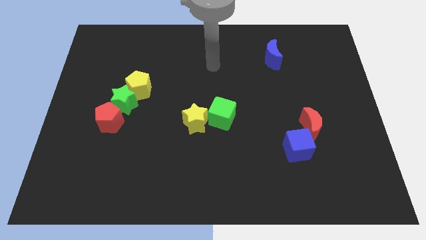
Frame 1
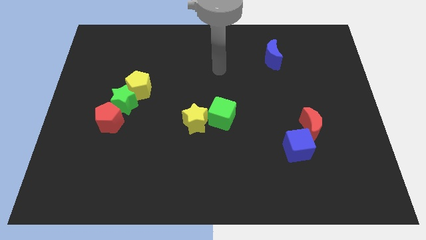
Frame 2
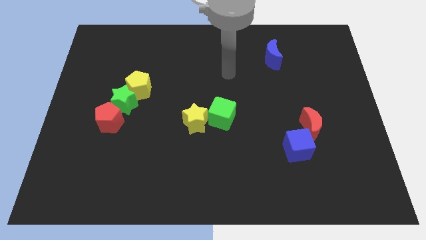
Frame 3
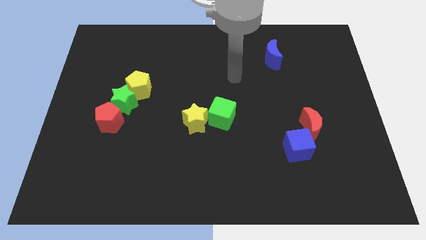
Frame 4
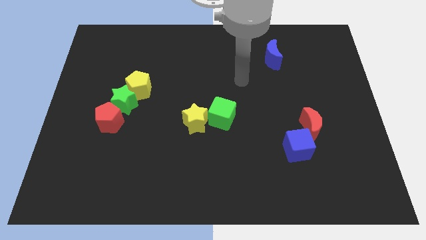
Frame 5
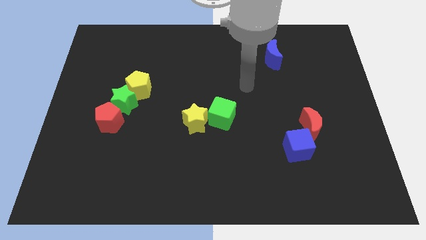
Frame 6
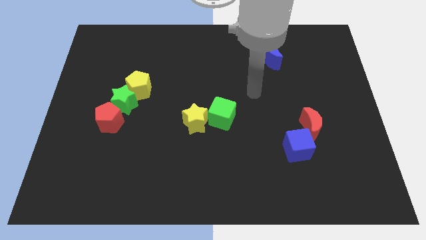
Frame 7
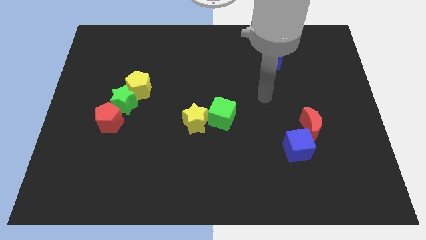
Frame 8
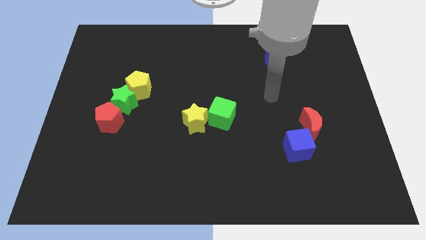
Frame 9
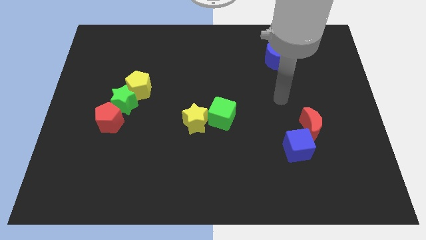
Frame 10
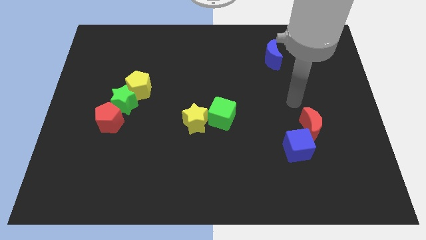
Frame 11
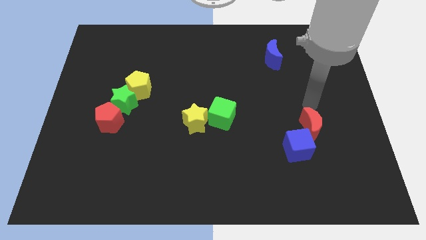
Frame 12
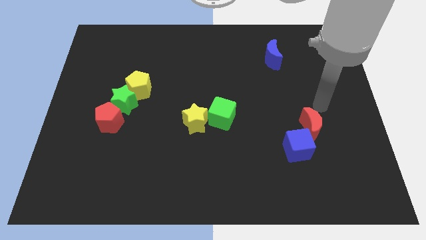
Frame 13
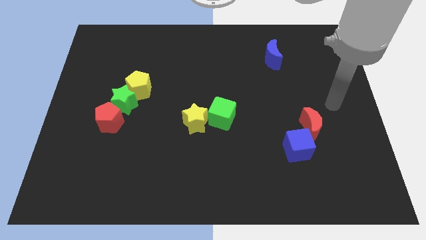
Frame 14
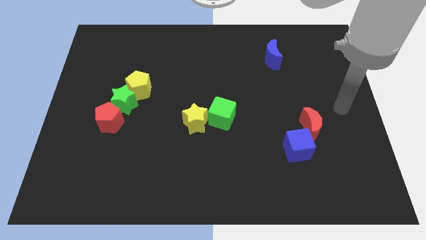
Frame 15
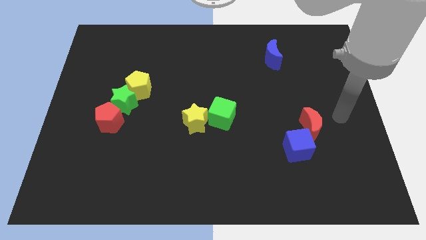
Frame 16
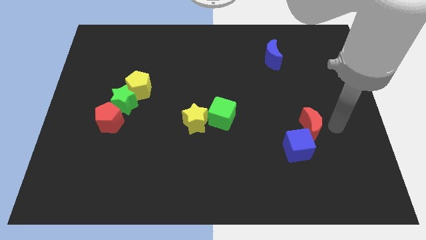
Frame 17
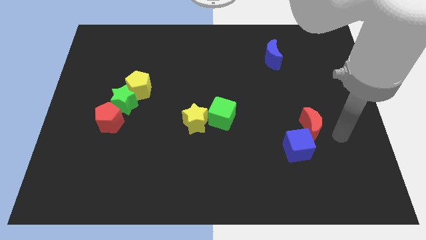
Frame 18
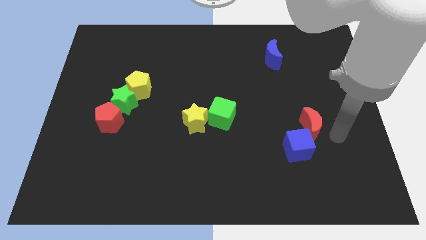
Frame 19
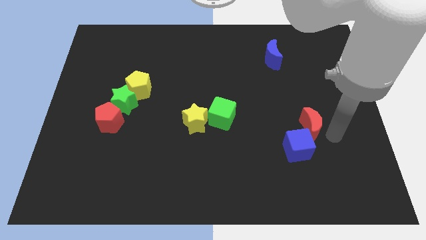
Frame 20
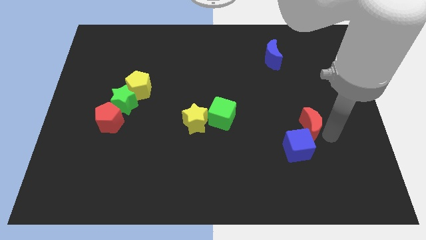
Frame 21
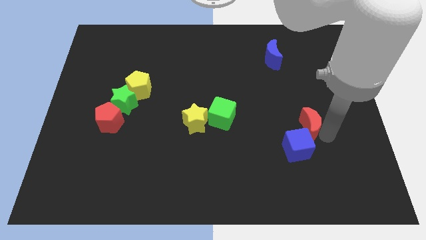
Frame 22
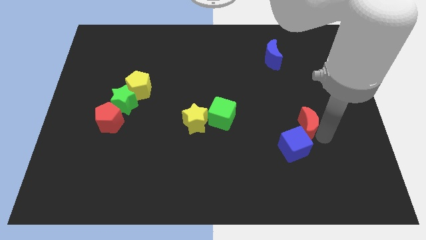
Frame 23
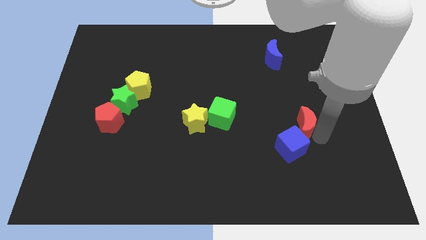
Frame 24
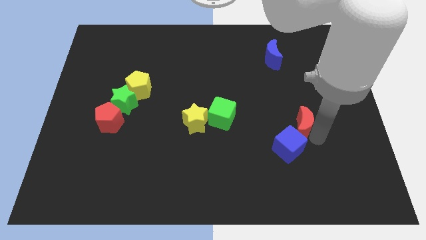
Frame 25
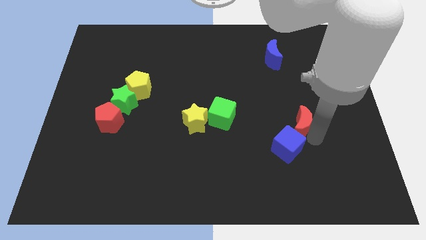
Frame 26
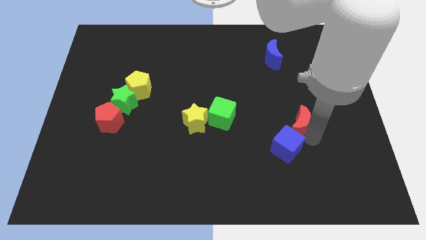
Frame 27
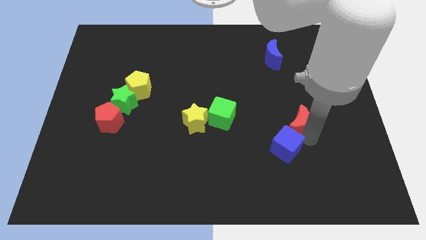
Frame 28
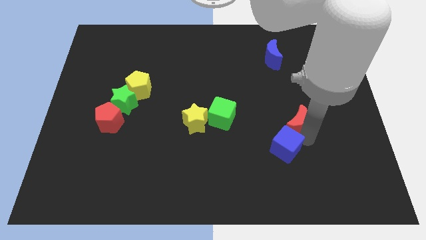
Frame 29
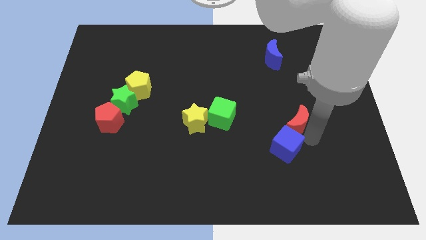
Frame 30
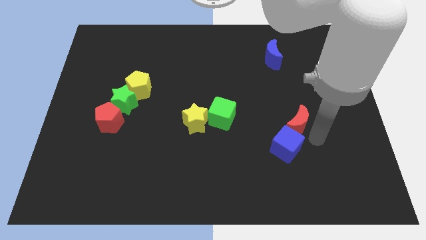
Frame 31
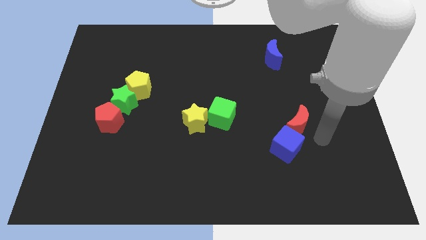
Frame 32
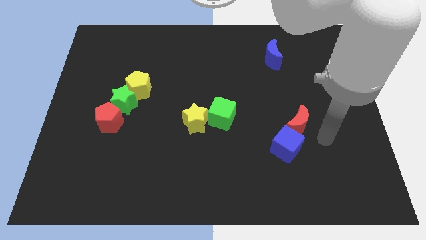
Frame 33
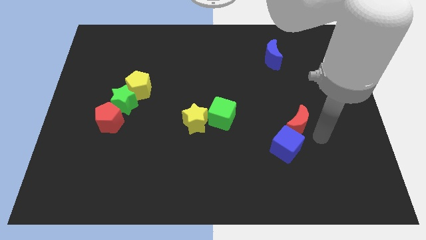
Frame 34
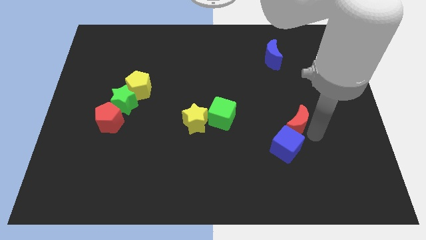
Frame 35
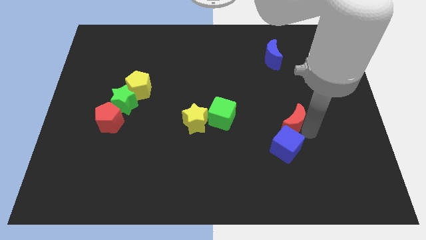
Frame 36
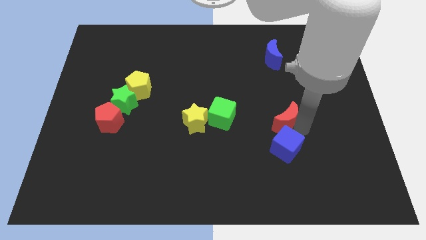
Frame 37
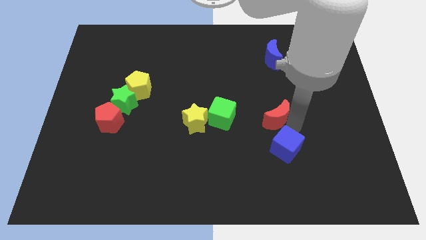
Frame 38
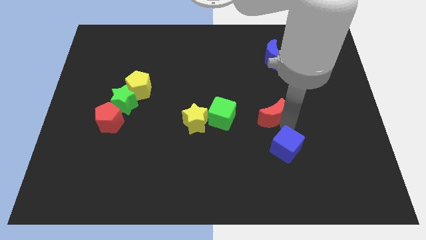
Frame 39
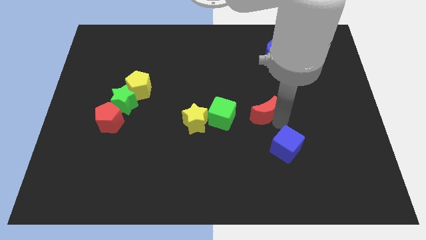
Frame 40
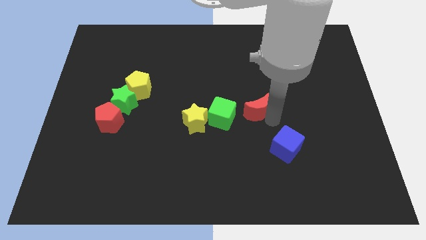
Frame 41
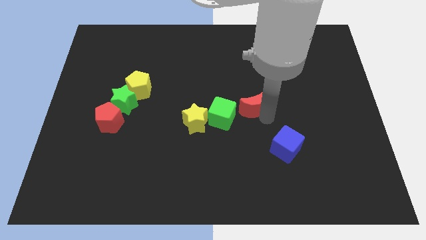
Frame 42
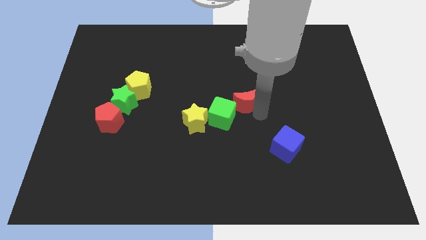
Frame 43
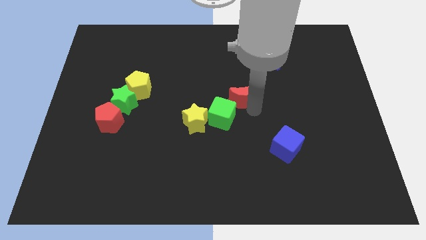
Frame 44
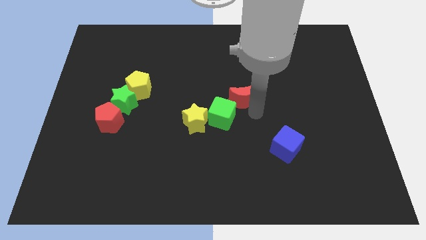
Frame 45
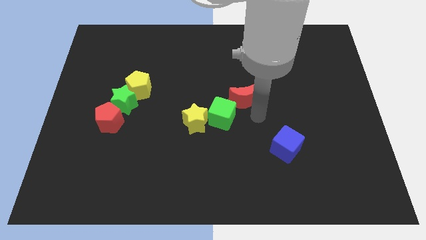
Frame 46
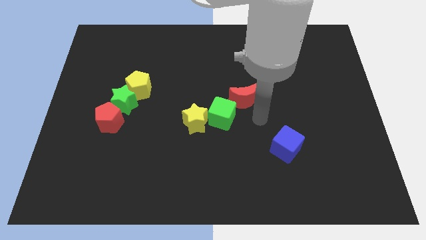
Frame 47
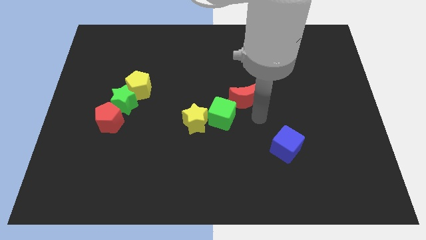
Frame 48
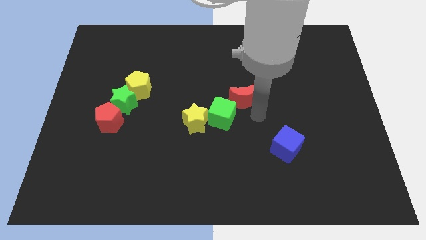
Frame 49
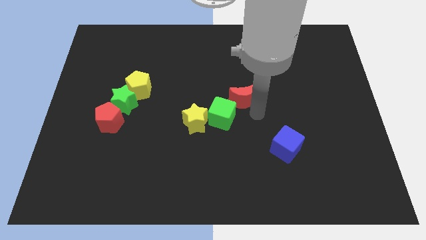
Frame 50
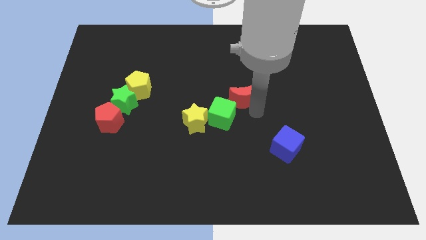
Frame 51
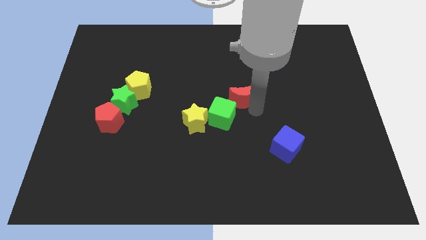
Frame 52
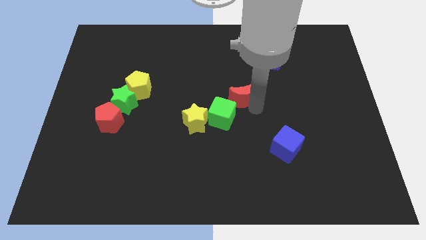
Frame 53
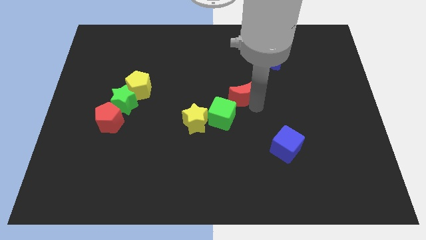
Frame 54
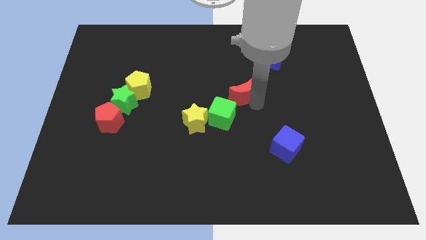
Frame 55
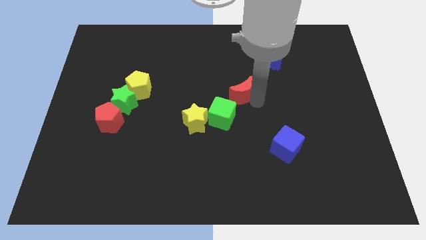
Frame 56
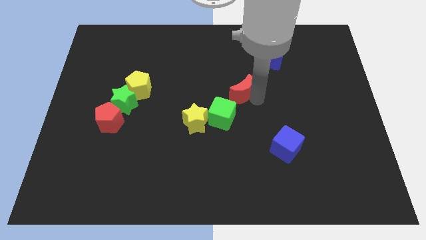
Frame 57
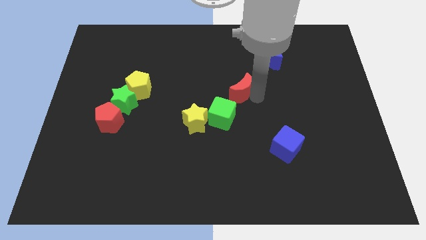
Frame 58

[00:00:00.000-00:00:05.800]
slide the red moon above the green cube

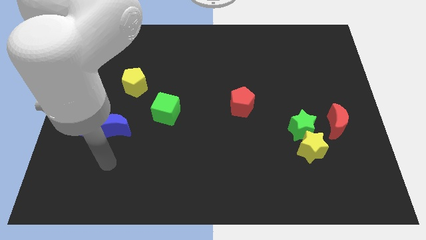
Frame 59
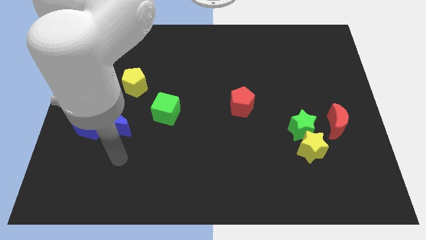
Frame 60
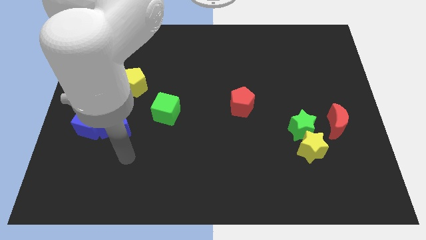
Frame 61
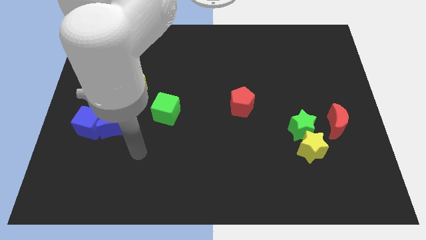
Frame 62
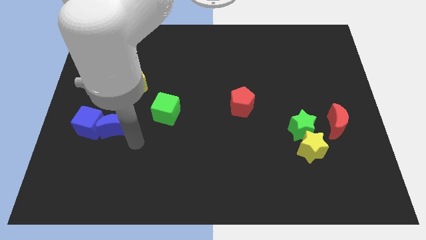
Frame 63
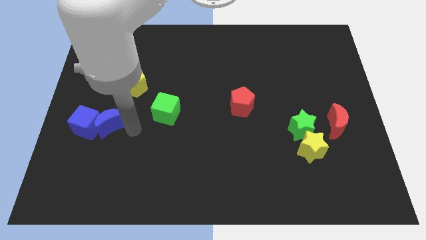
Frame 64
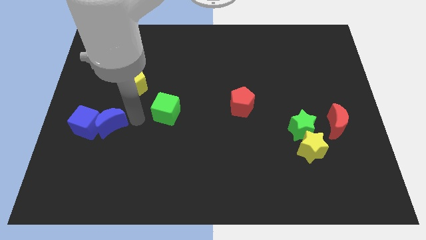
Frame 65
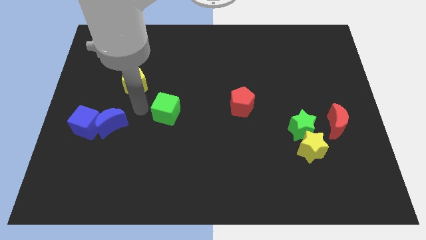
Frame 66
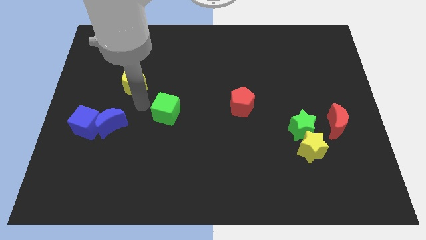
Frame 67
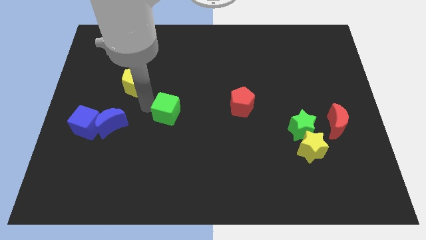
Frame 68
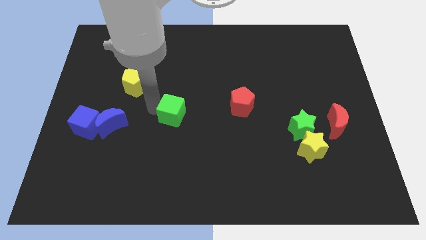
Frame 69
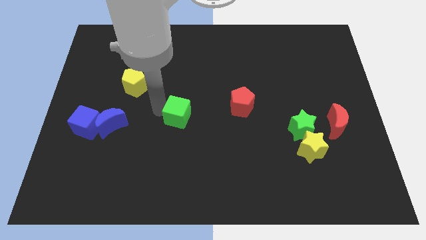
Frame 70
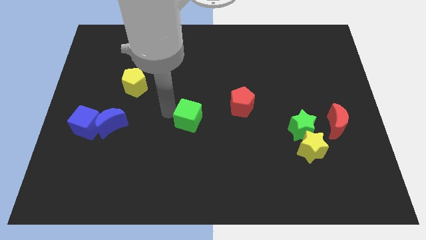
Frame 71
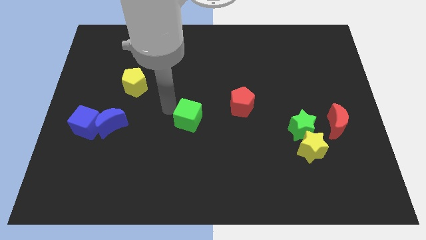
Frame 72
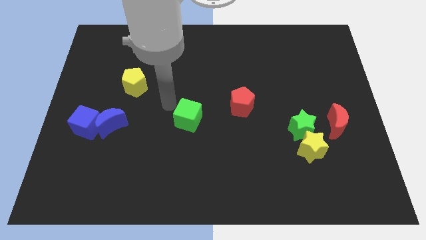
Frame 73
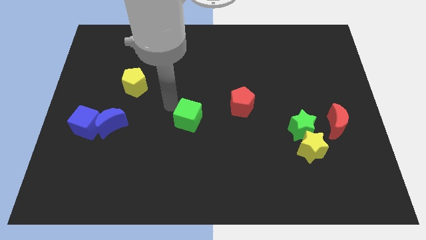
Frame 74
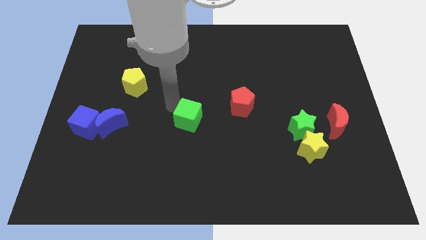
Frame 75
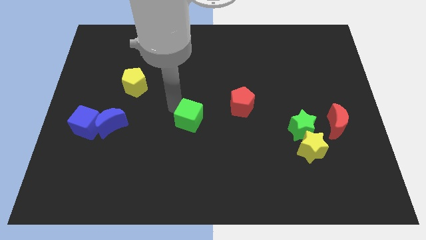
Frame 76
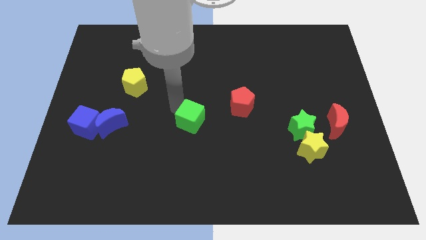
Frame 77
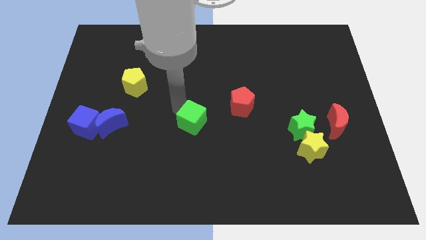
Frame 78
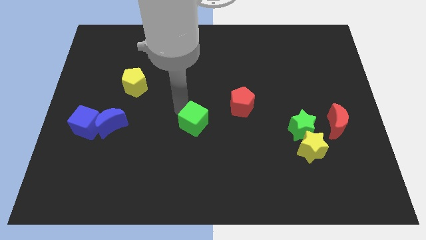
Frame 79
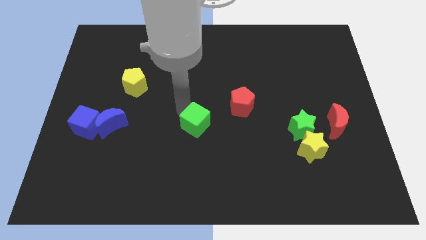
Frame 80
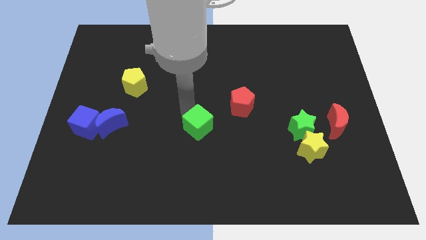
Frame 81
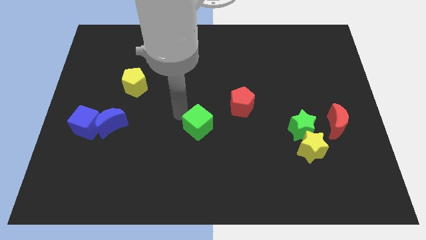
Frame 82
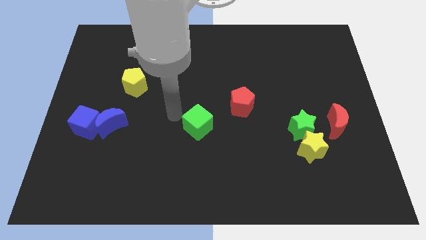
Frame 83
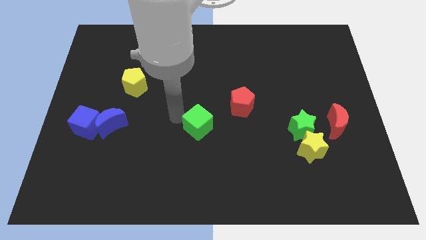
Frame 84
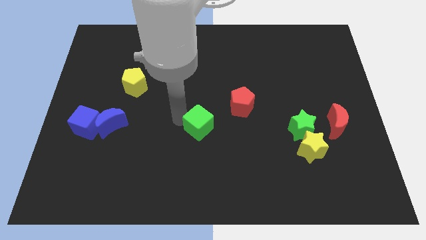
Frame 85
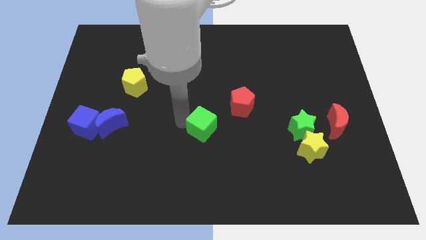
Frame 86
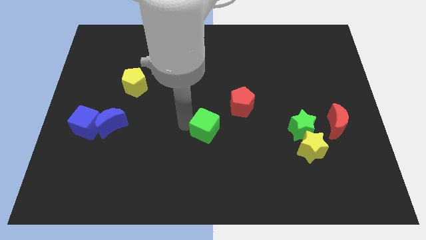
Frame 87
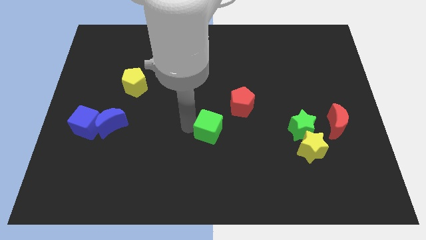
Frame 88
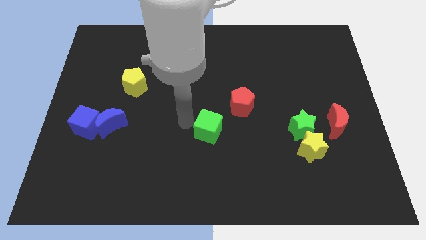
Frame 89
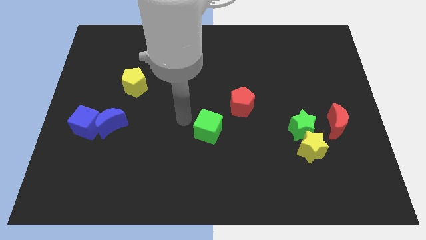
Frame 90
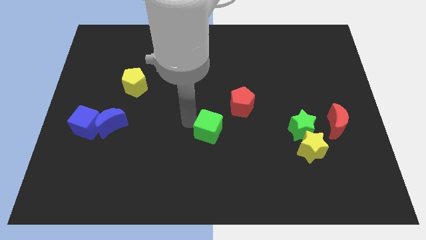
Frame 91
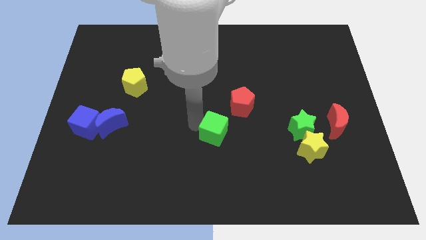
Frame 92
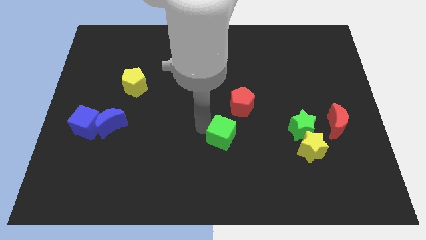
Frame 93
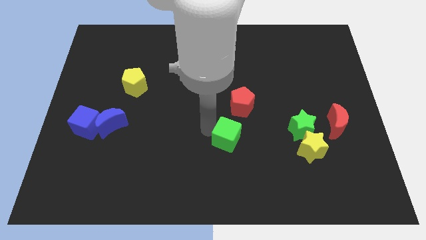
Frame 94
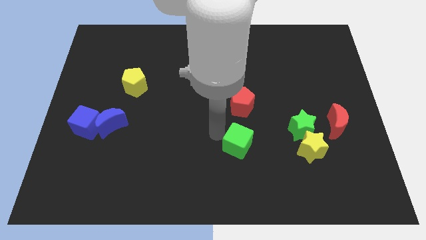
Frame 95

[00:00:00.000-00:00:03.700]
move the green cube left of the yellow star
